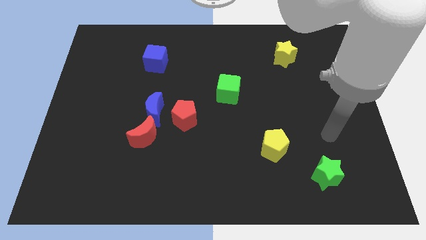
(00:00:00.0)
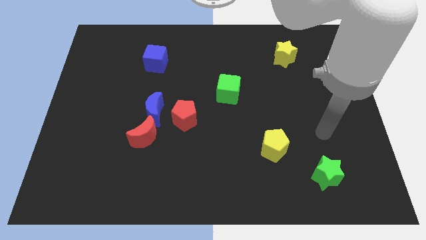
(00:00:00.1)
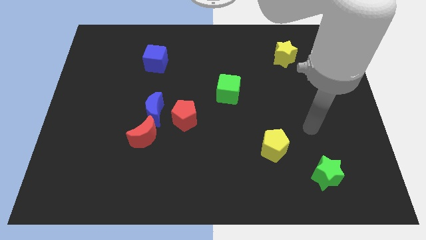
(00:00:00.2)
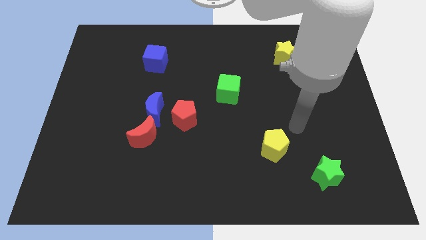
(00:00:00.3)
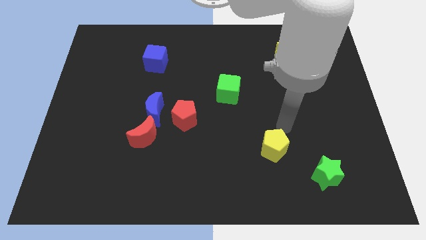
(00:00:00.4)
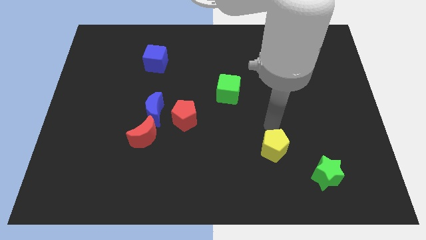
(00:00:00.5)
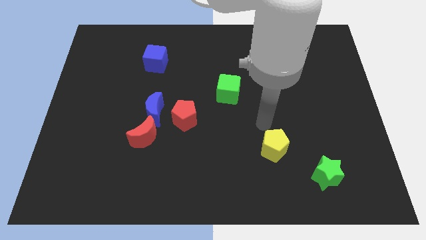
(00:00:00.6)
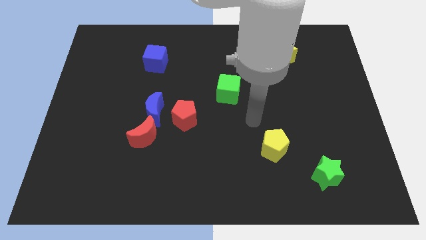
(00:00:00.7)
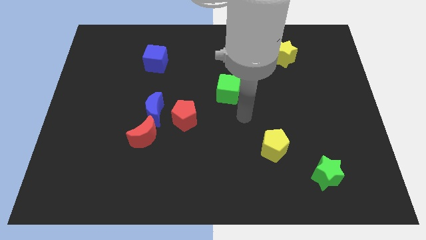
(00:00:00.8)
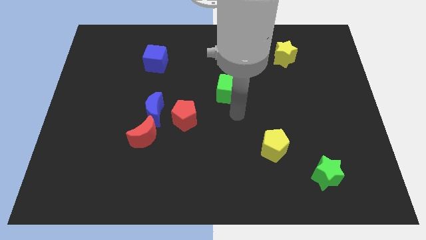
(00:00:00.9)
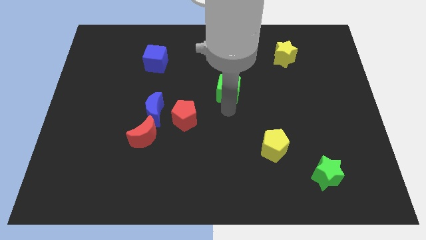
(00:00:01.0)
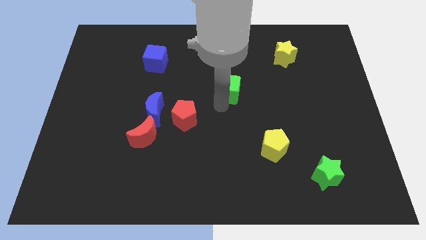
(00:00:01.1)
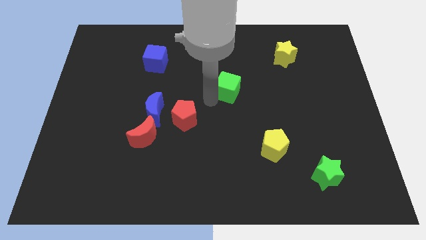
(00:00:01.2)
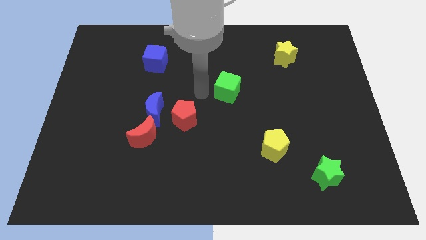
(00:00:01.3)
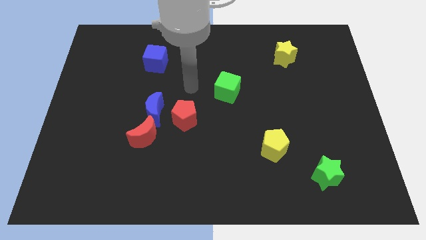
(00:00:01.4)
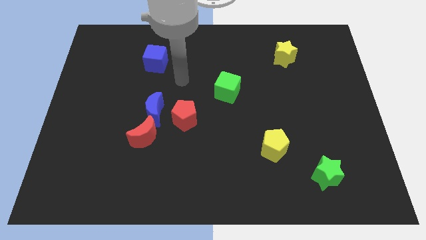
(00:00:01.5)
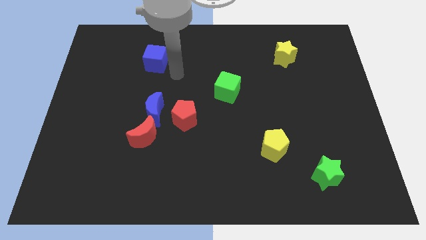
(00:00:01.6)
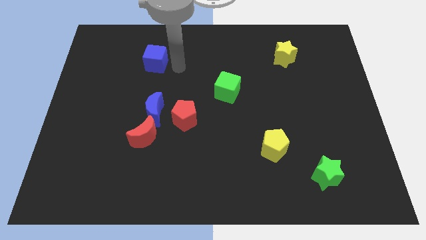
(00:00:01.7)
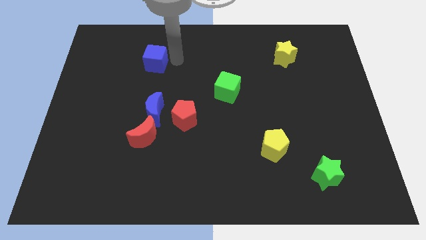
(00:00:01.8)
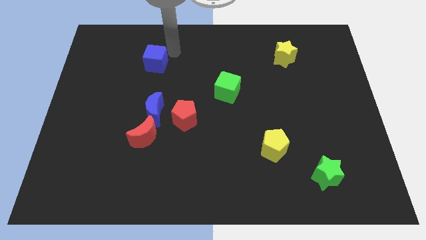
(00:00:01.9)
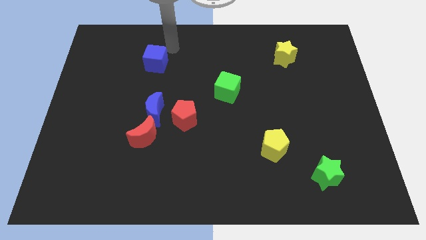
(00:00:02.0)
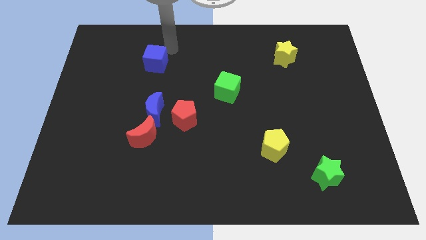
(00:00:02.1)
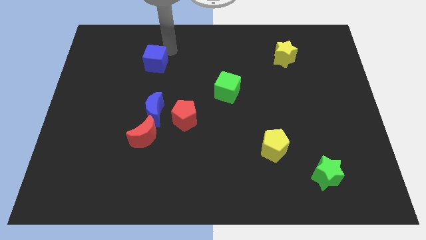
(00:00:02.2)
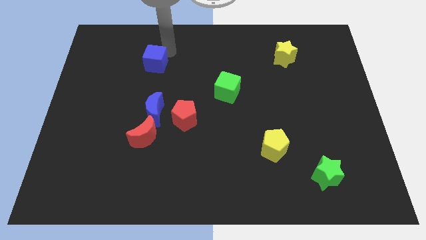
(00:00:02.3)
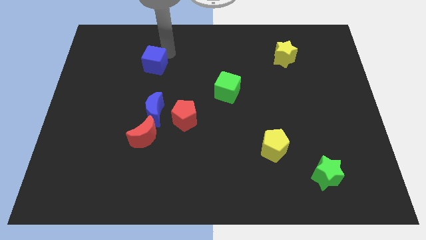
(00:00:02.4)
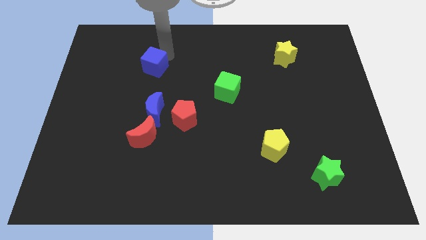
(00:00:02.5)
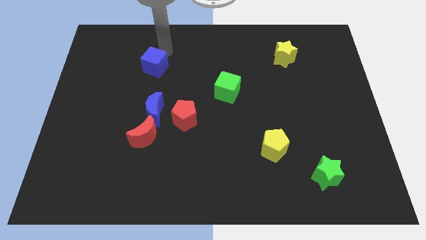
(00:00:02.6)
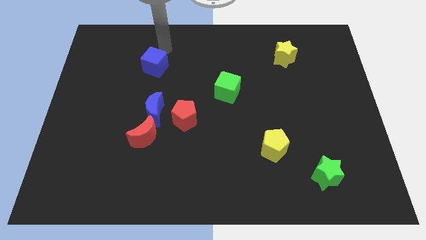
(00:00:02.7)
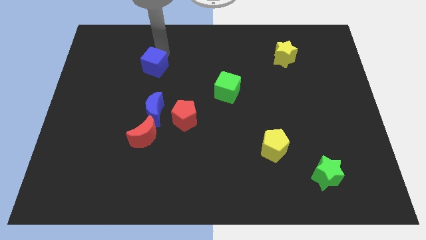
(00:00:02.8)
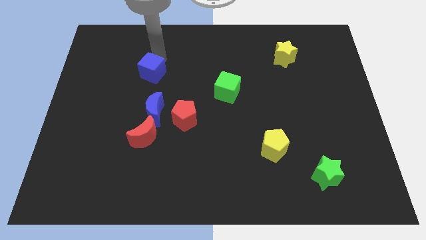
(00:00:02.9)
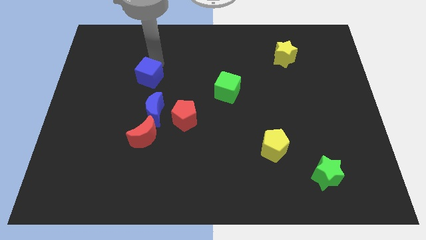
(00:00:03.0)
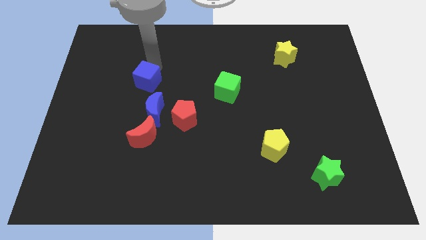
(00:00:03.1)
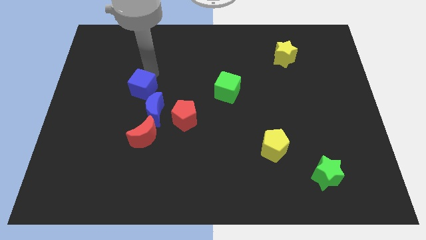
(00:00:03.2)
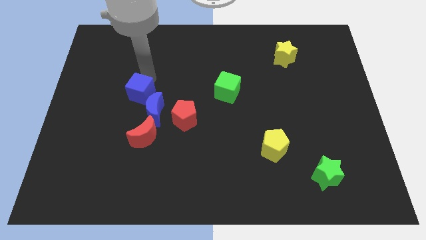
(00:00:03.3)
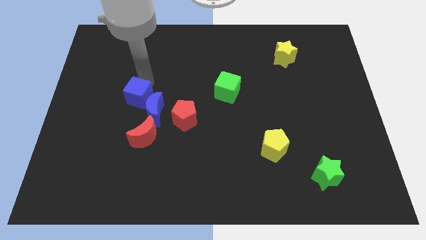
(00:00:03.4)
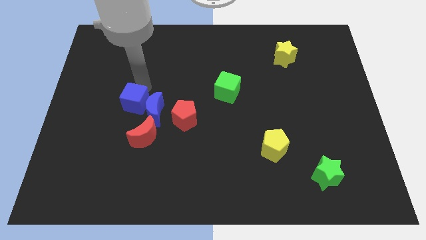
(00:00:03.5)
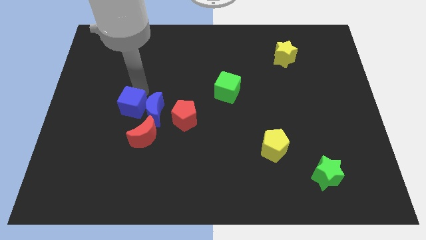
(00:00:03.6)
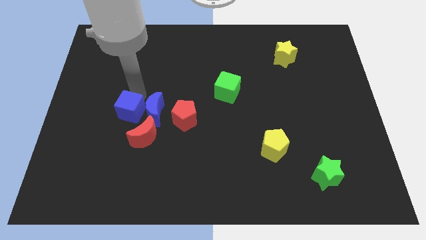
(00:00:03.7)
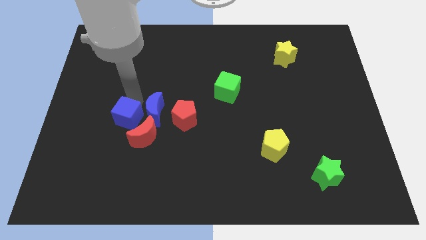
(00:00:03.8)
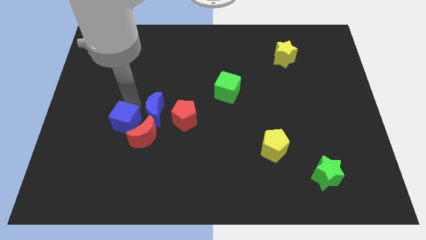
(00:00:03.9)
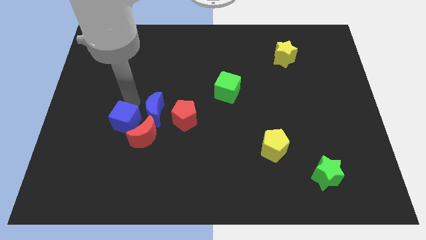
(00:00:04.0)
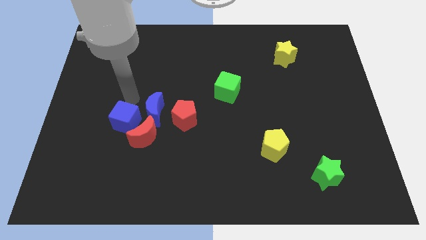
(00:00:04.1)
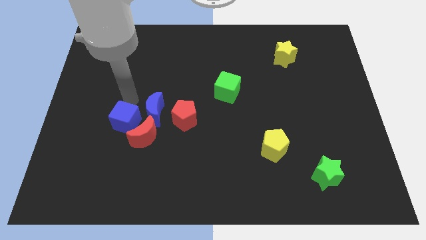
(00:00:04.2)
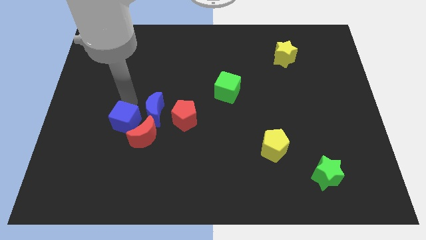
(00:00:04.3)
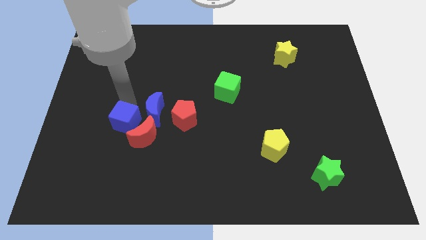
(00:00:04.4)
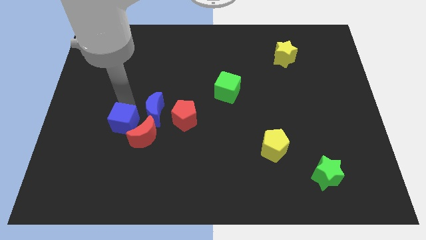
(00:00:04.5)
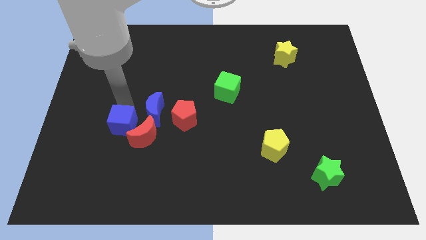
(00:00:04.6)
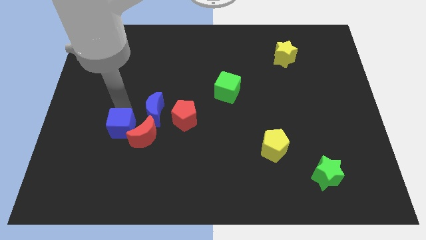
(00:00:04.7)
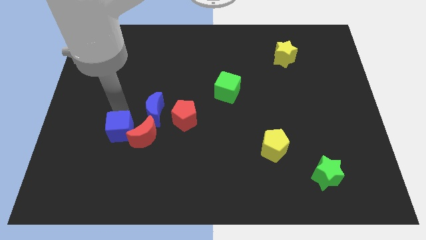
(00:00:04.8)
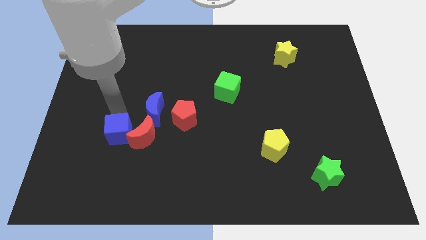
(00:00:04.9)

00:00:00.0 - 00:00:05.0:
move the blue cube to the bottom left side of the red moon

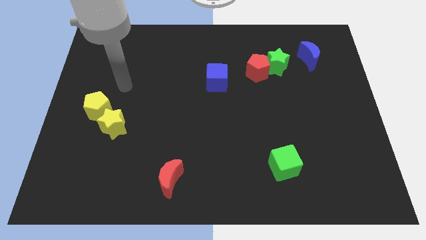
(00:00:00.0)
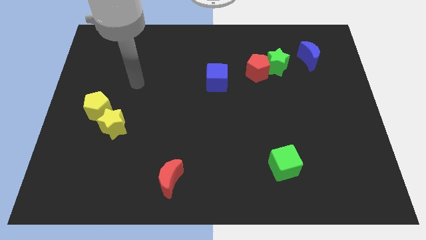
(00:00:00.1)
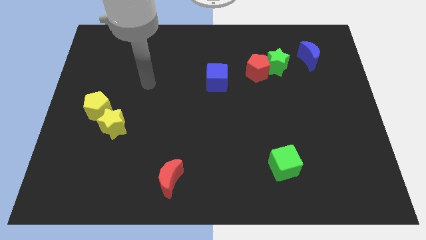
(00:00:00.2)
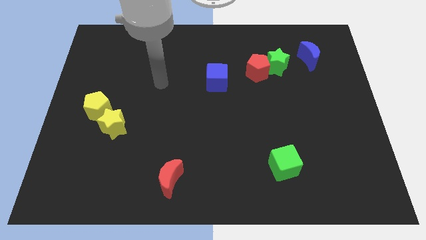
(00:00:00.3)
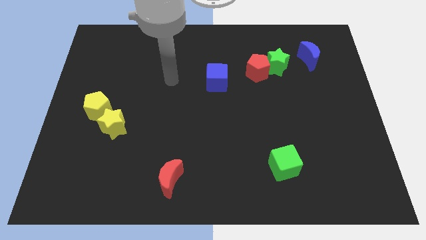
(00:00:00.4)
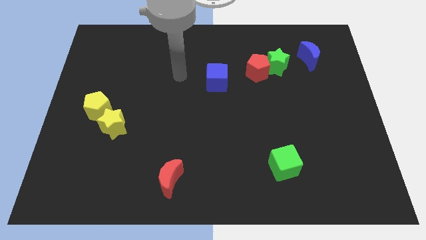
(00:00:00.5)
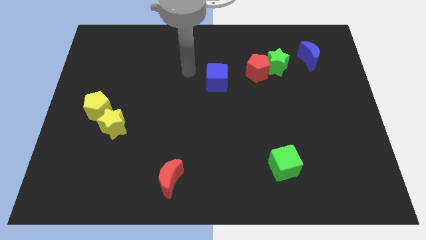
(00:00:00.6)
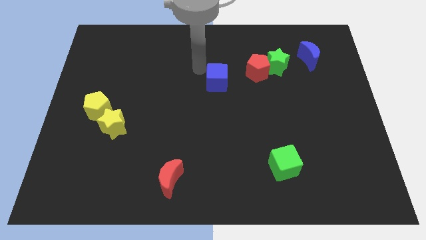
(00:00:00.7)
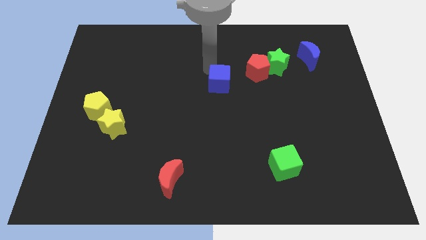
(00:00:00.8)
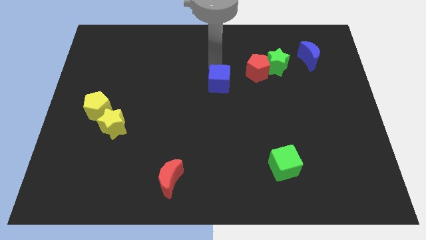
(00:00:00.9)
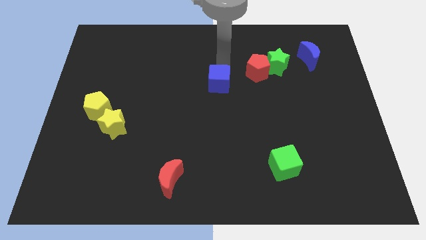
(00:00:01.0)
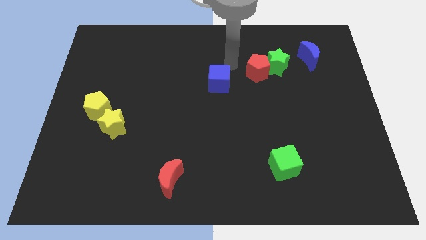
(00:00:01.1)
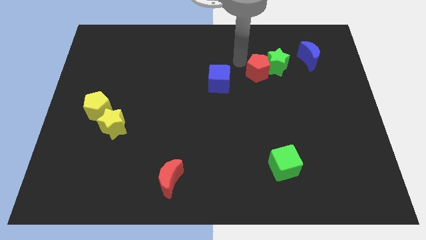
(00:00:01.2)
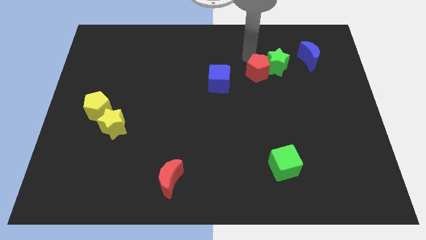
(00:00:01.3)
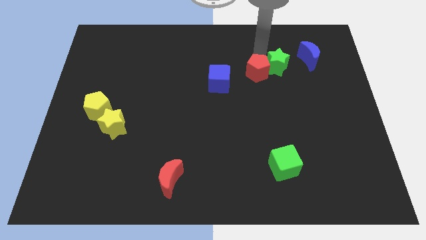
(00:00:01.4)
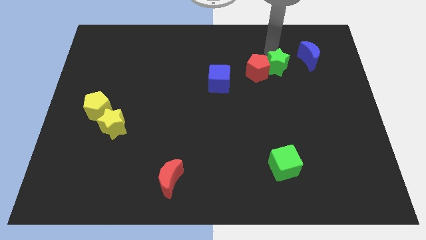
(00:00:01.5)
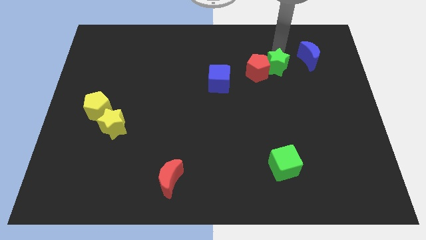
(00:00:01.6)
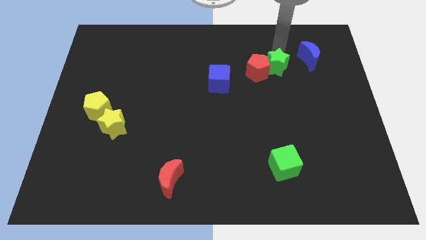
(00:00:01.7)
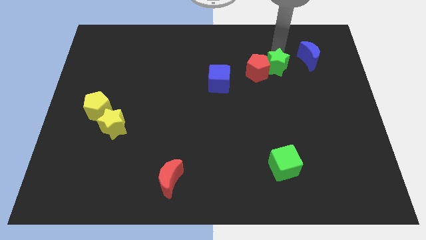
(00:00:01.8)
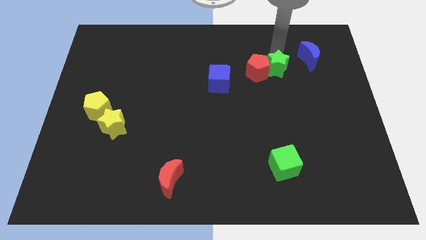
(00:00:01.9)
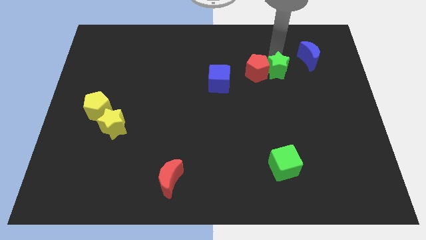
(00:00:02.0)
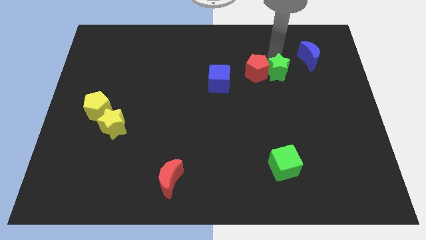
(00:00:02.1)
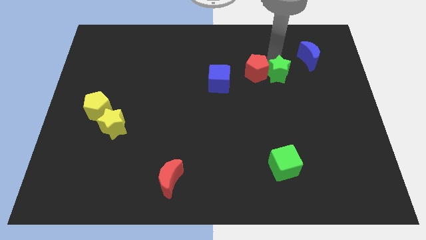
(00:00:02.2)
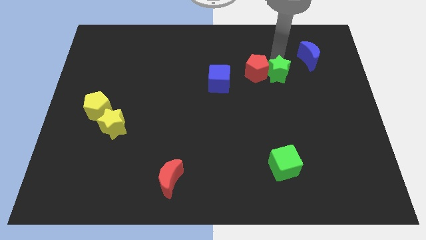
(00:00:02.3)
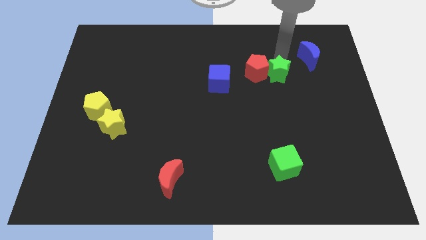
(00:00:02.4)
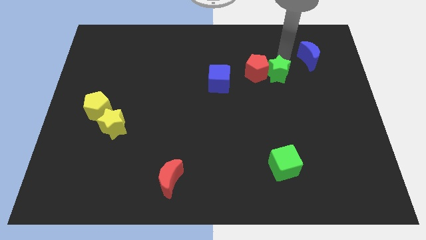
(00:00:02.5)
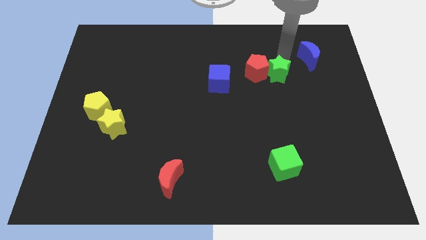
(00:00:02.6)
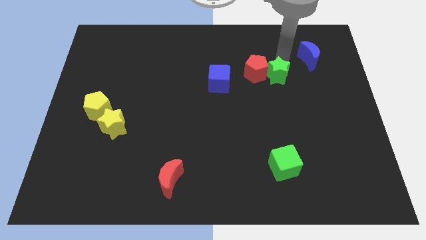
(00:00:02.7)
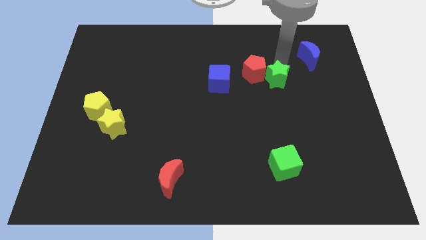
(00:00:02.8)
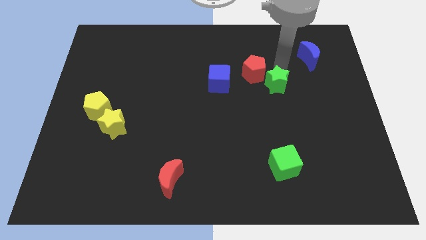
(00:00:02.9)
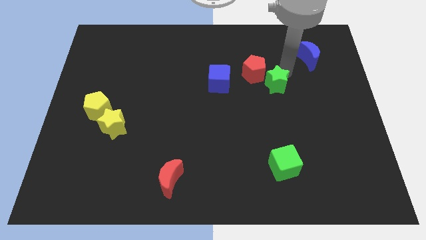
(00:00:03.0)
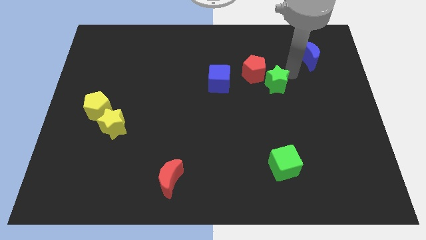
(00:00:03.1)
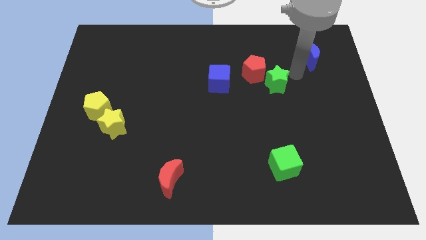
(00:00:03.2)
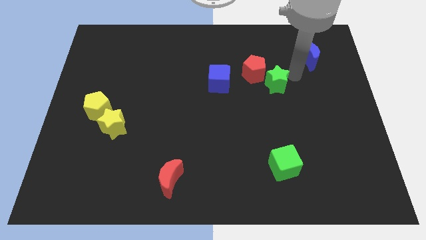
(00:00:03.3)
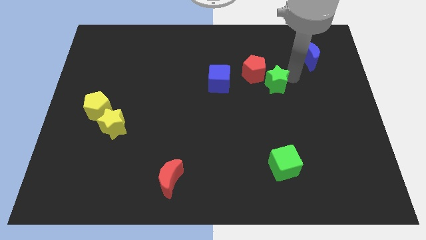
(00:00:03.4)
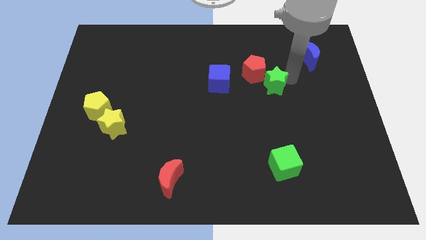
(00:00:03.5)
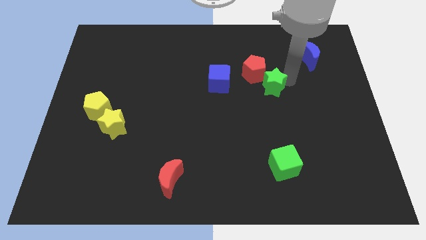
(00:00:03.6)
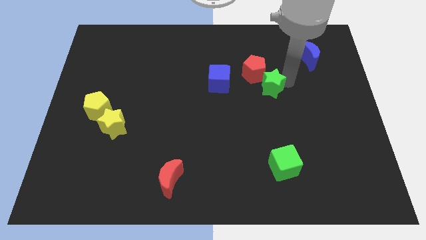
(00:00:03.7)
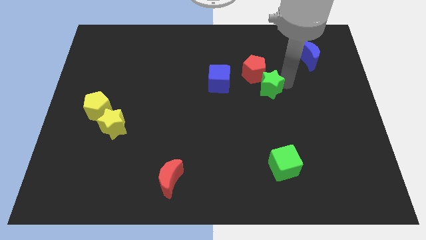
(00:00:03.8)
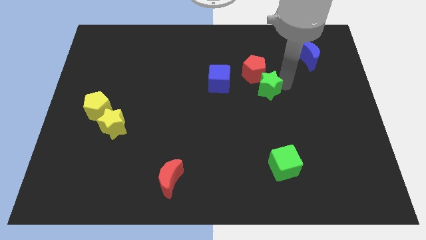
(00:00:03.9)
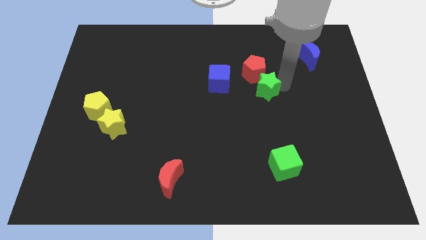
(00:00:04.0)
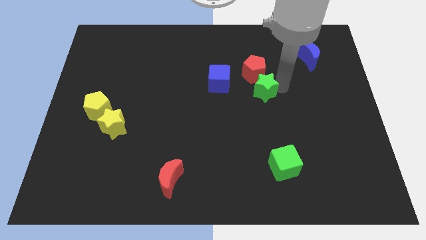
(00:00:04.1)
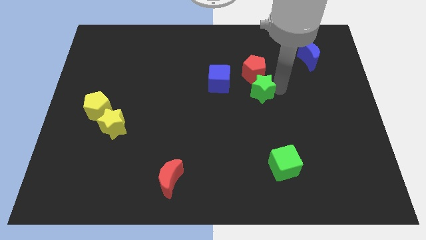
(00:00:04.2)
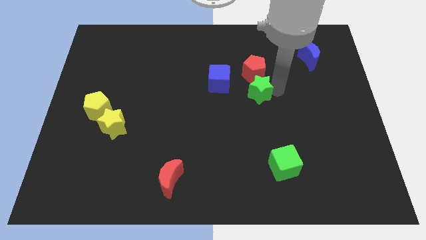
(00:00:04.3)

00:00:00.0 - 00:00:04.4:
push the green star diagonally down and to the right of the blue cube
